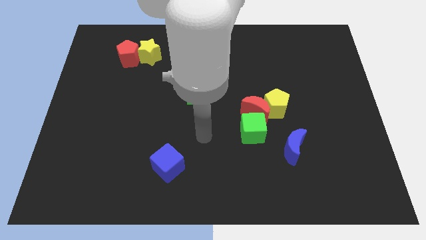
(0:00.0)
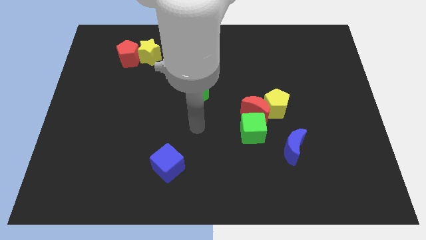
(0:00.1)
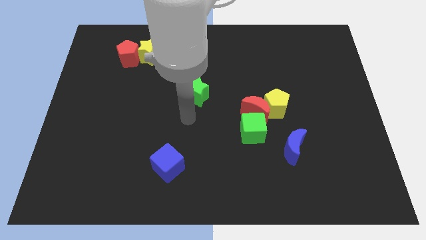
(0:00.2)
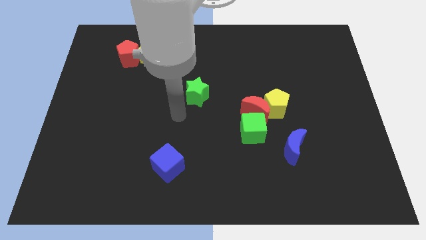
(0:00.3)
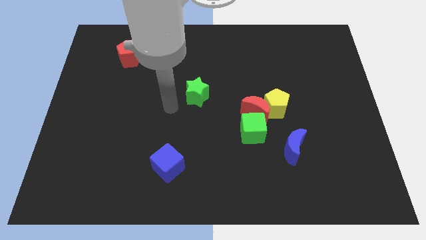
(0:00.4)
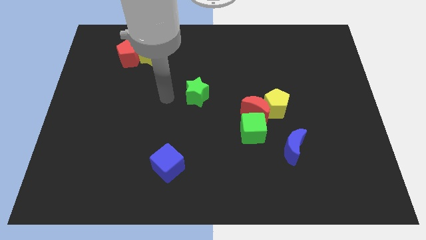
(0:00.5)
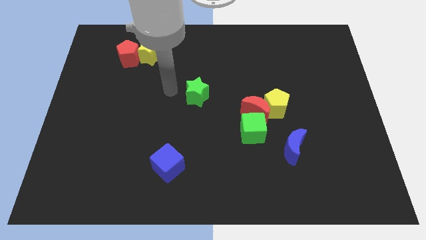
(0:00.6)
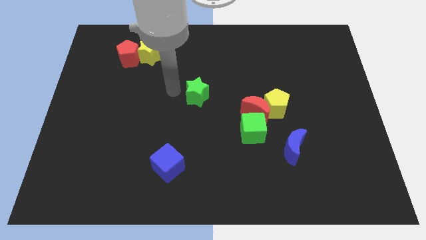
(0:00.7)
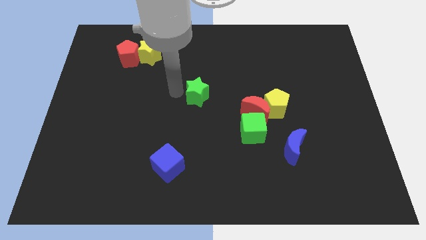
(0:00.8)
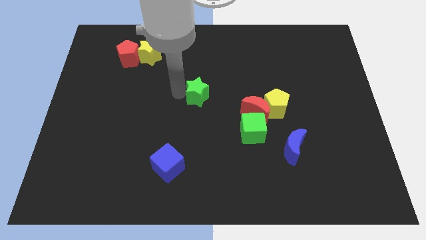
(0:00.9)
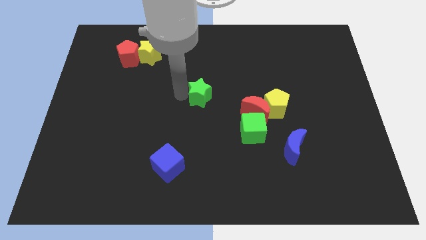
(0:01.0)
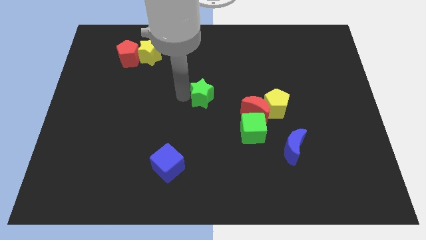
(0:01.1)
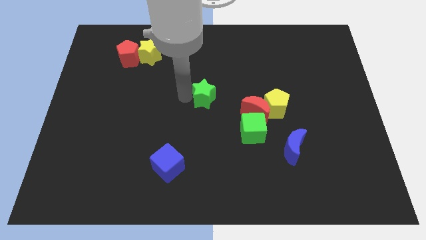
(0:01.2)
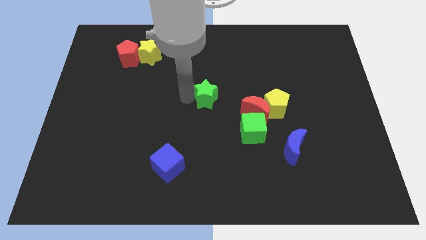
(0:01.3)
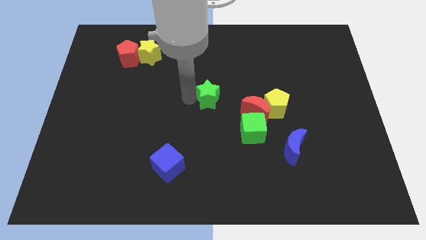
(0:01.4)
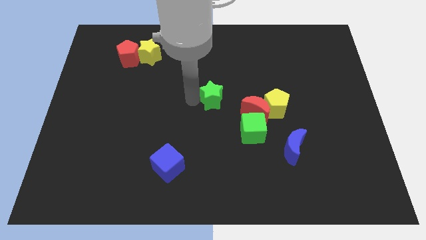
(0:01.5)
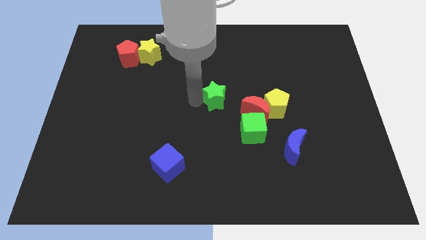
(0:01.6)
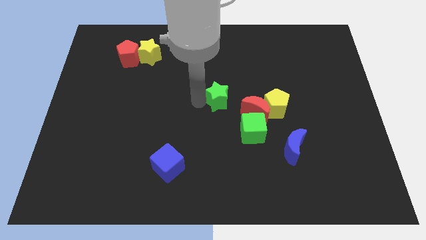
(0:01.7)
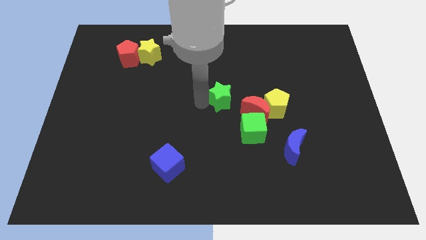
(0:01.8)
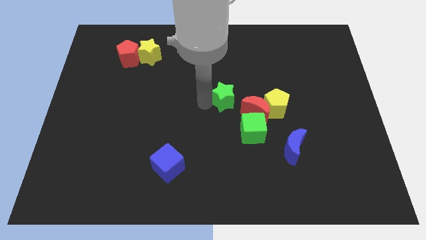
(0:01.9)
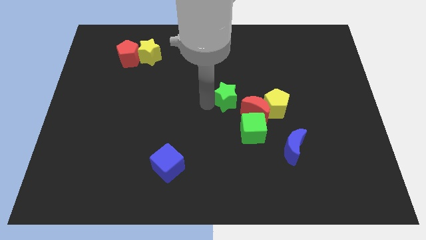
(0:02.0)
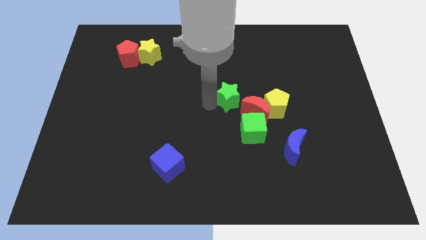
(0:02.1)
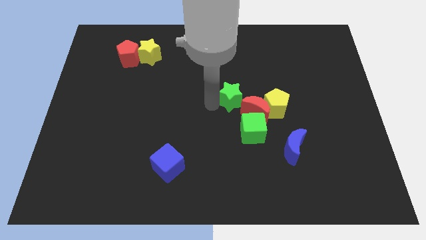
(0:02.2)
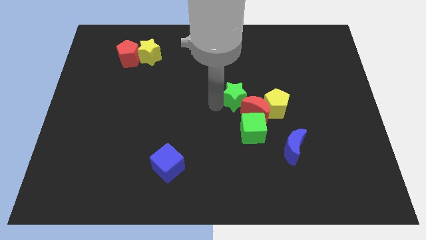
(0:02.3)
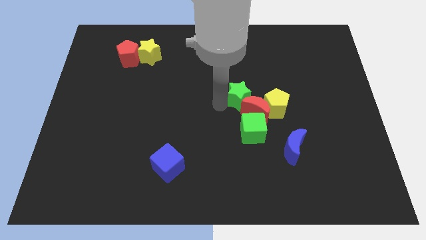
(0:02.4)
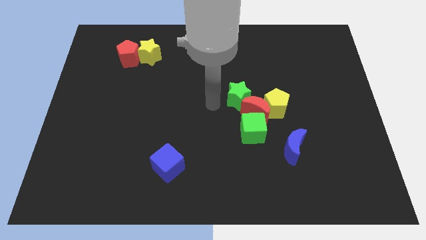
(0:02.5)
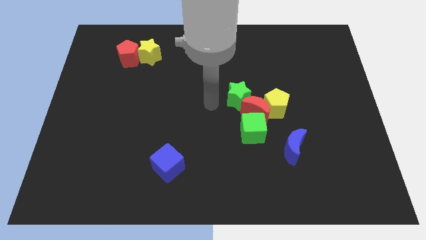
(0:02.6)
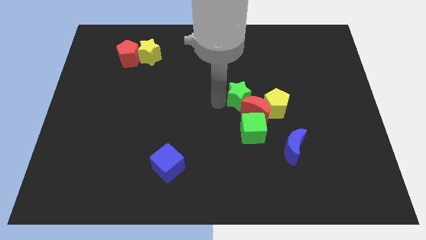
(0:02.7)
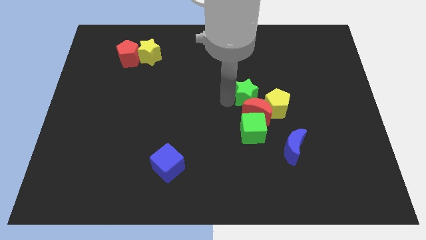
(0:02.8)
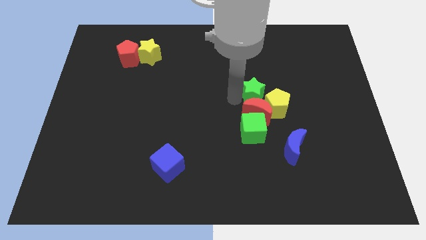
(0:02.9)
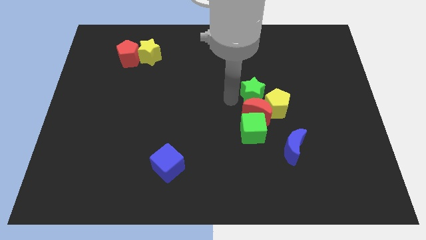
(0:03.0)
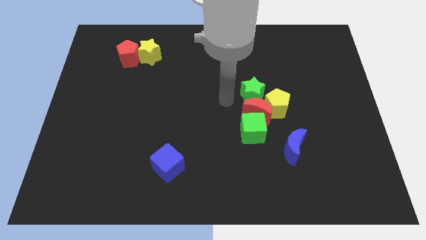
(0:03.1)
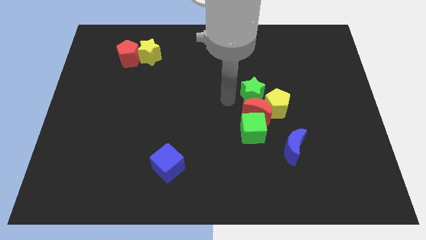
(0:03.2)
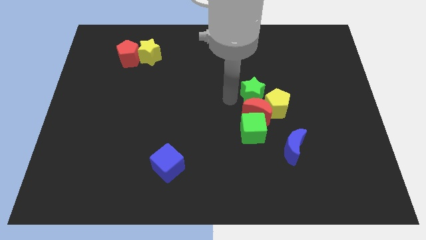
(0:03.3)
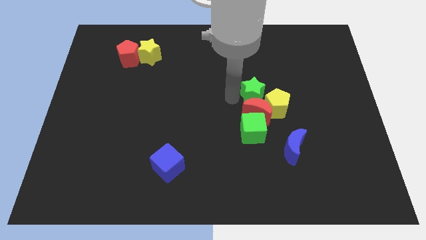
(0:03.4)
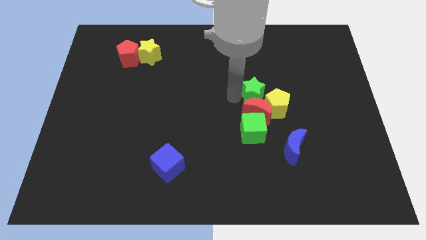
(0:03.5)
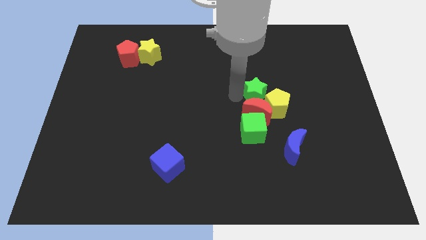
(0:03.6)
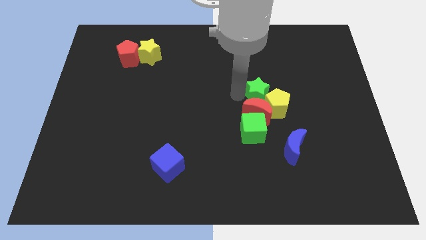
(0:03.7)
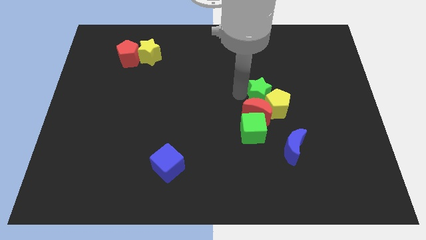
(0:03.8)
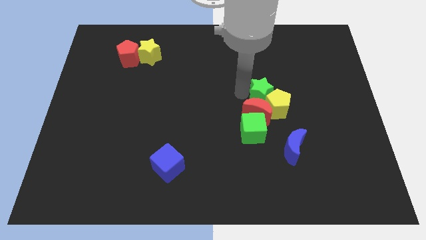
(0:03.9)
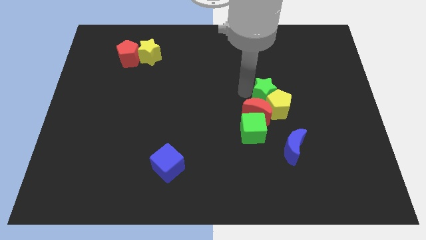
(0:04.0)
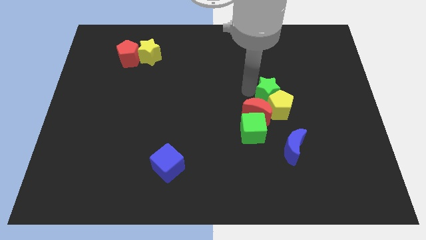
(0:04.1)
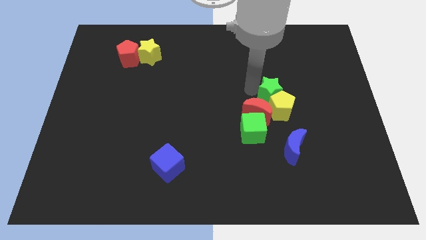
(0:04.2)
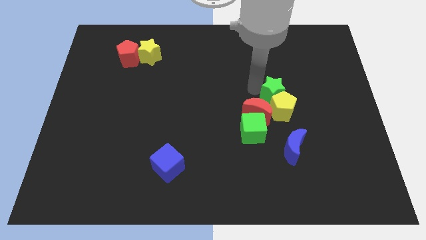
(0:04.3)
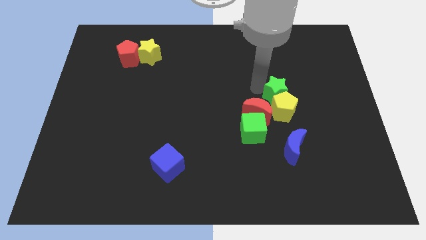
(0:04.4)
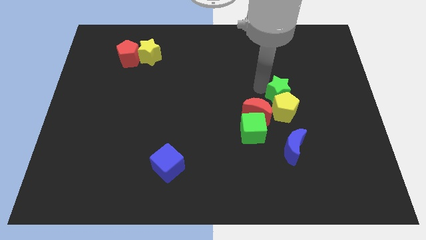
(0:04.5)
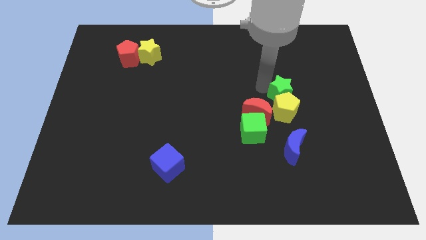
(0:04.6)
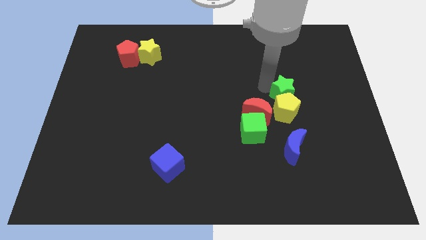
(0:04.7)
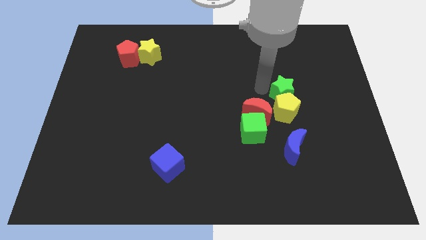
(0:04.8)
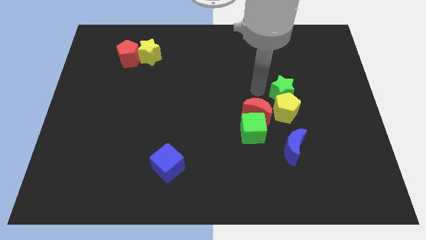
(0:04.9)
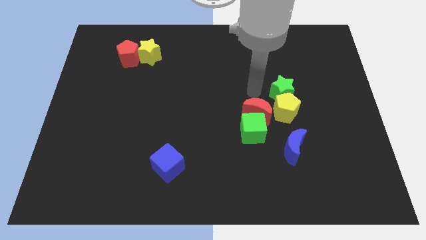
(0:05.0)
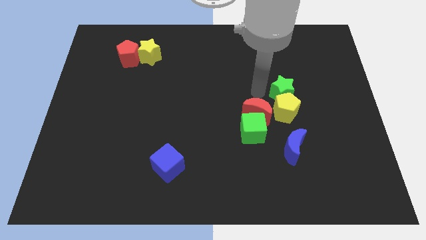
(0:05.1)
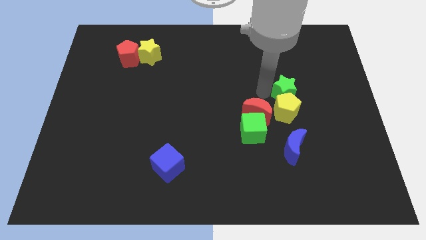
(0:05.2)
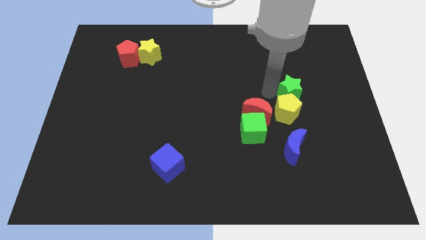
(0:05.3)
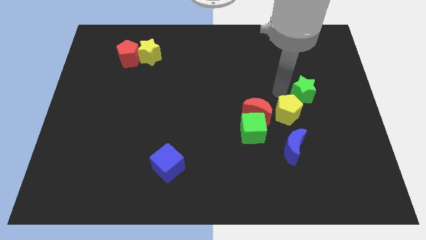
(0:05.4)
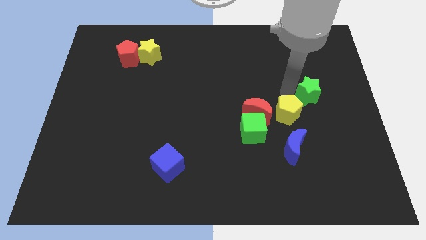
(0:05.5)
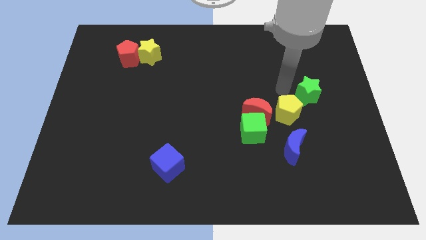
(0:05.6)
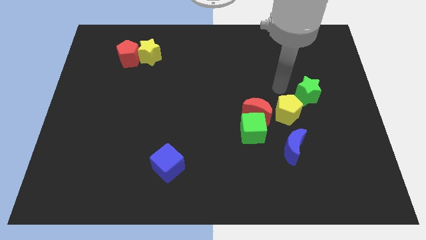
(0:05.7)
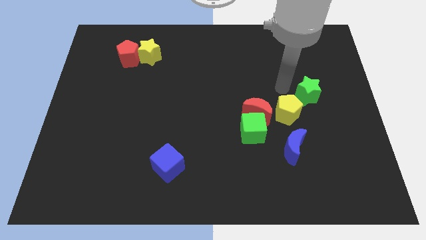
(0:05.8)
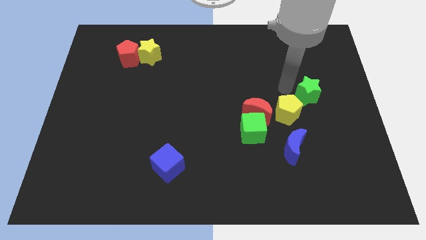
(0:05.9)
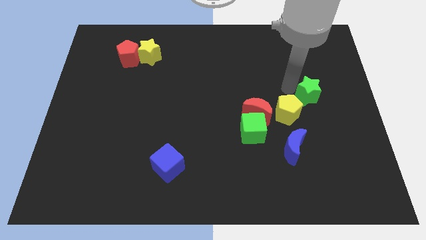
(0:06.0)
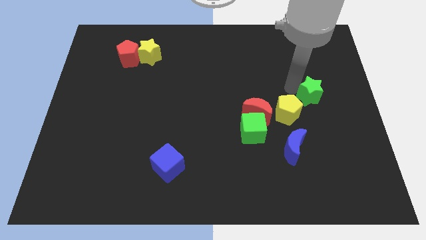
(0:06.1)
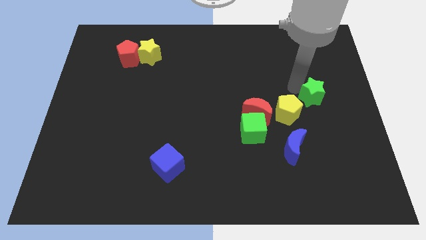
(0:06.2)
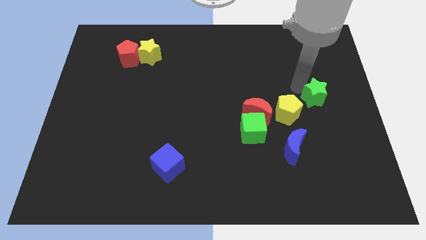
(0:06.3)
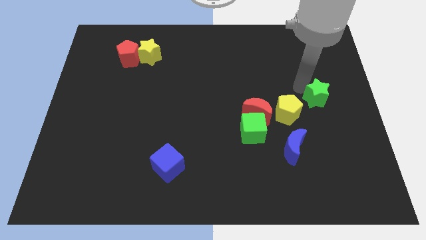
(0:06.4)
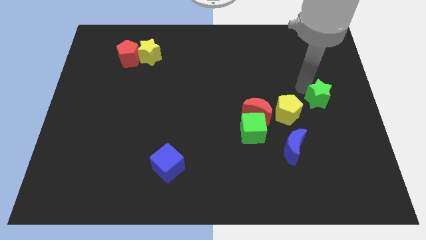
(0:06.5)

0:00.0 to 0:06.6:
put the green star to the right side of the board
